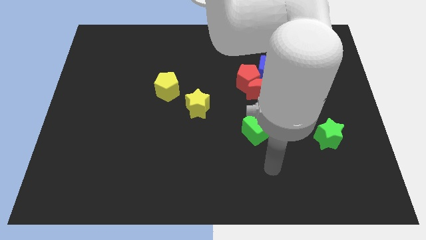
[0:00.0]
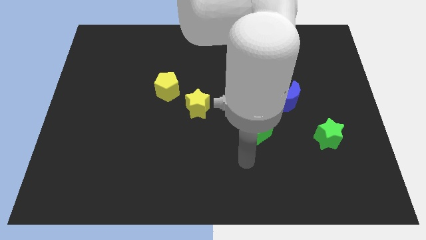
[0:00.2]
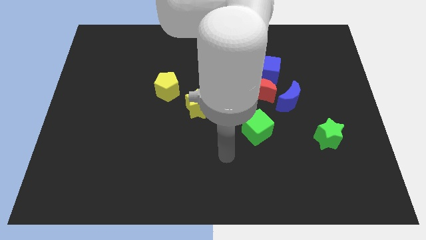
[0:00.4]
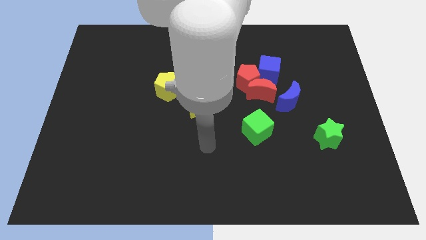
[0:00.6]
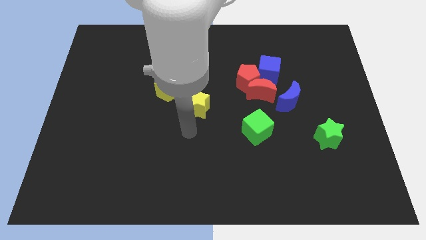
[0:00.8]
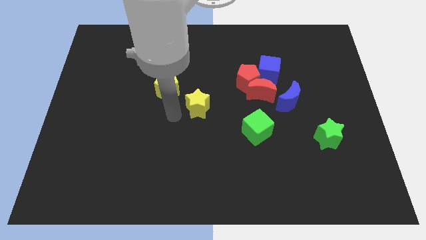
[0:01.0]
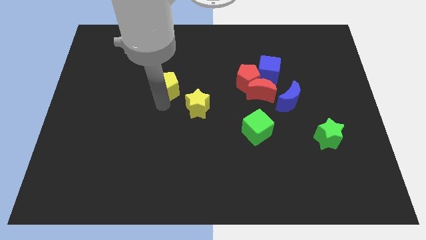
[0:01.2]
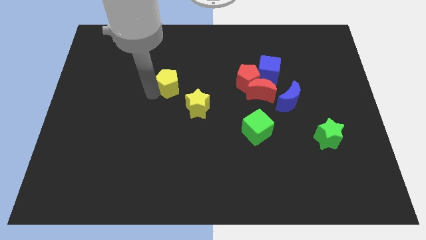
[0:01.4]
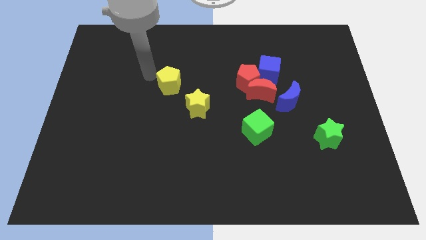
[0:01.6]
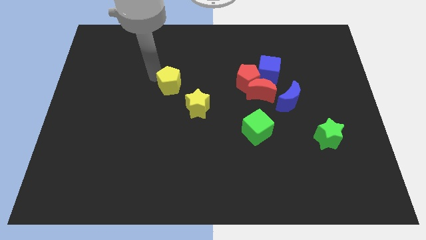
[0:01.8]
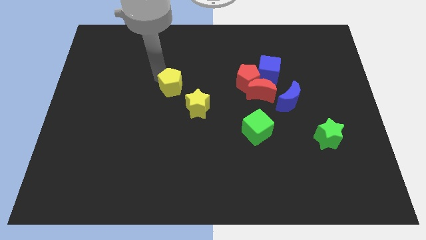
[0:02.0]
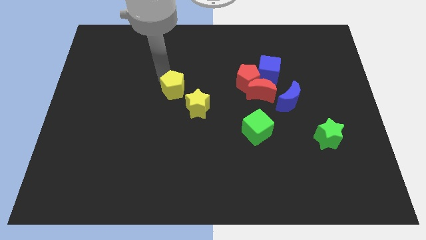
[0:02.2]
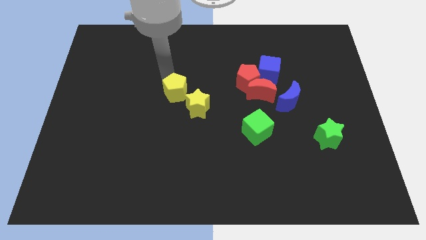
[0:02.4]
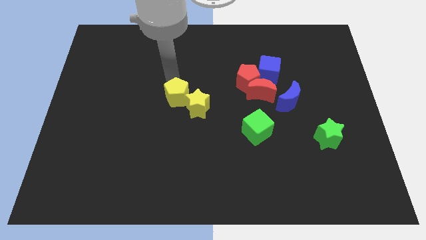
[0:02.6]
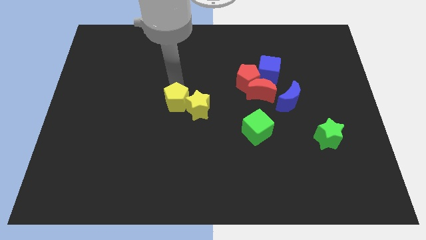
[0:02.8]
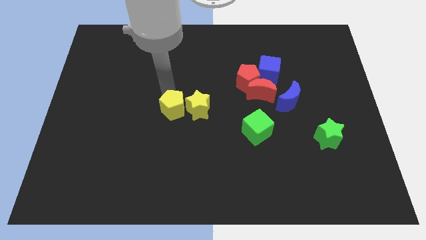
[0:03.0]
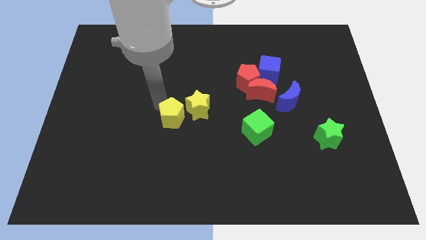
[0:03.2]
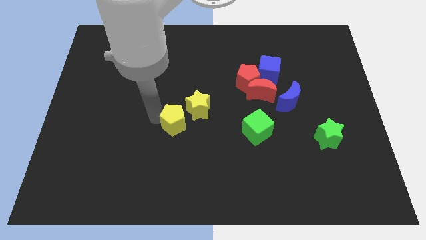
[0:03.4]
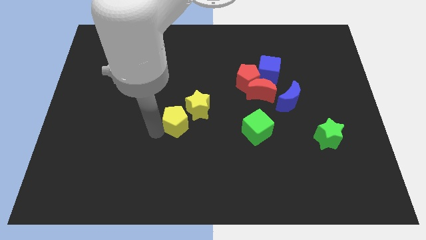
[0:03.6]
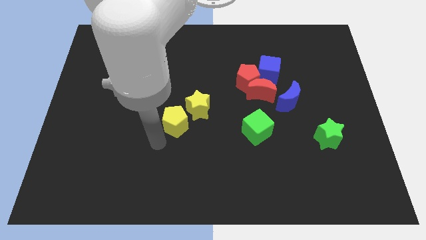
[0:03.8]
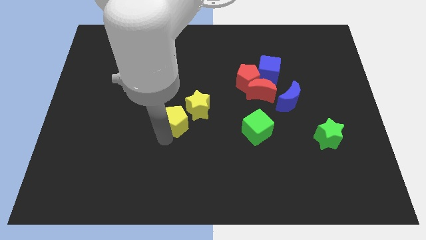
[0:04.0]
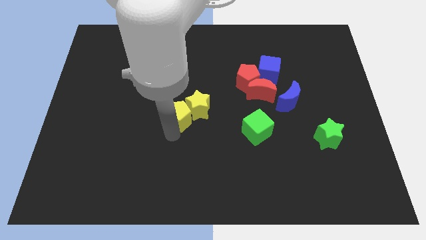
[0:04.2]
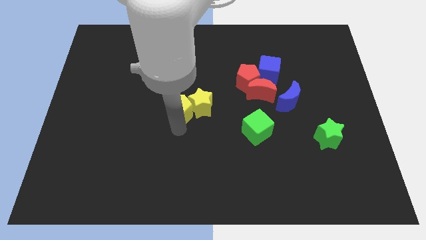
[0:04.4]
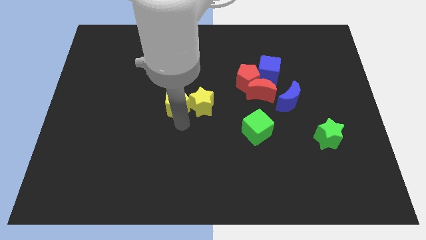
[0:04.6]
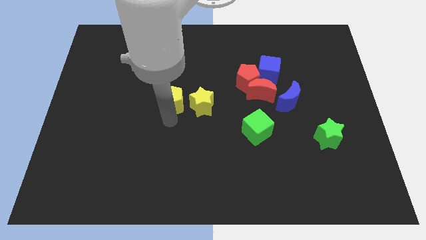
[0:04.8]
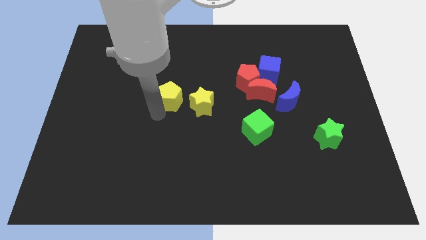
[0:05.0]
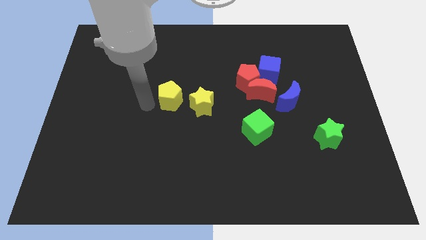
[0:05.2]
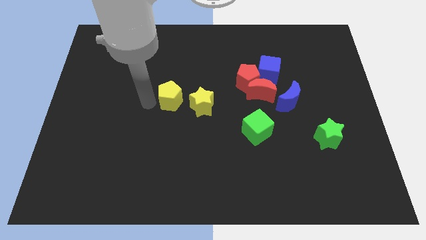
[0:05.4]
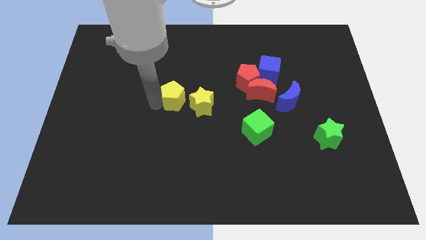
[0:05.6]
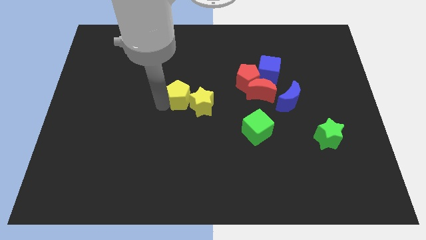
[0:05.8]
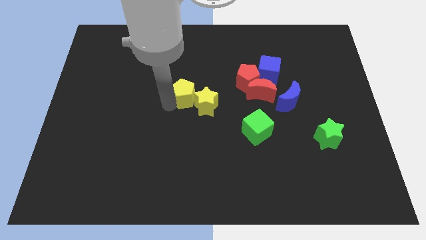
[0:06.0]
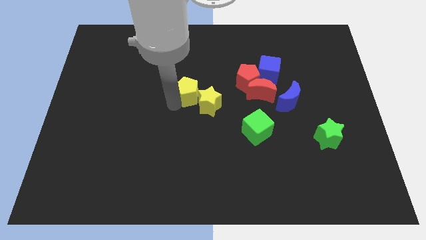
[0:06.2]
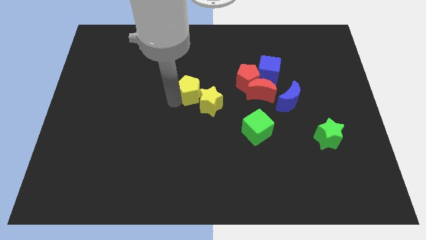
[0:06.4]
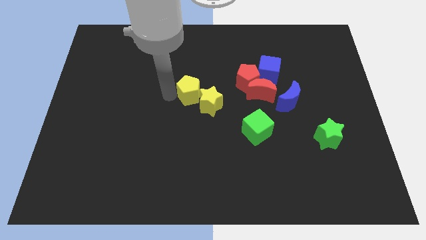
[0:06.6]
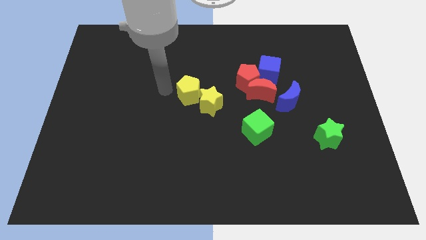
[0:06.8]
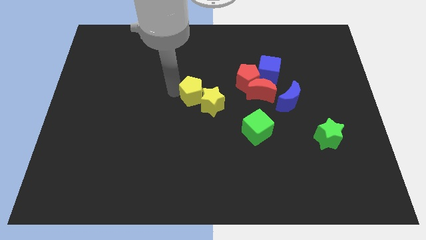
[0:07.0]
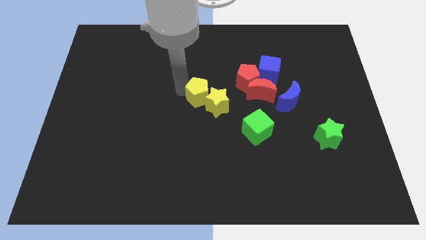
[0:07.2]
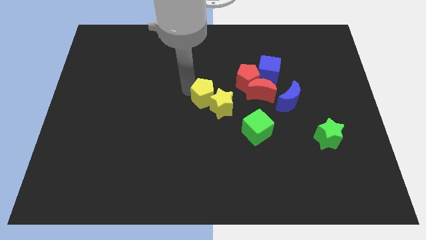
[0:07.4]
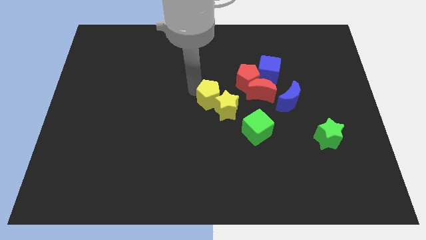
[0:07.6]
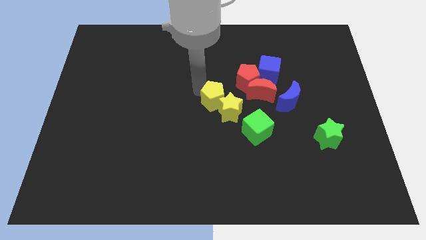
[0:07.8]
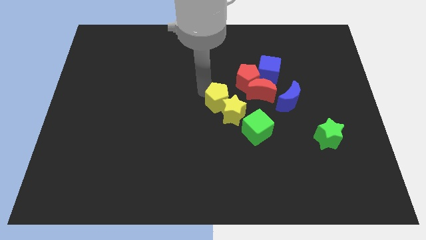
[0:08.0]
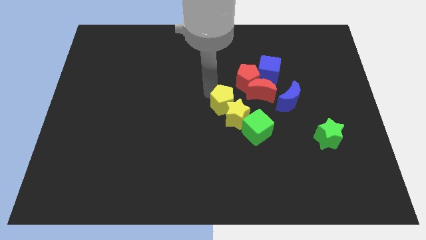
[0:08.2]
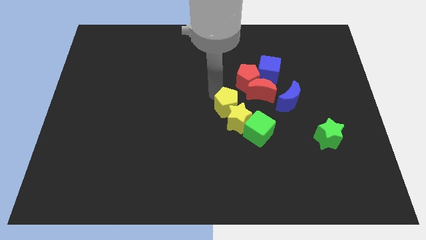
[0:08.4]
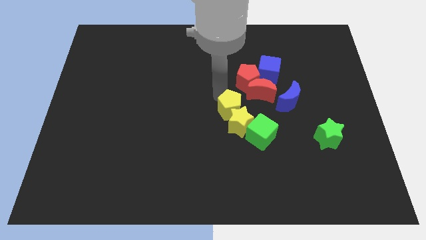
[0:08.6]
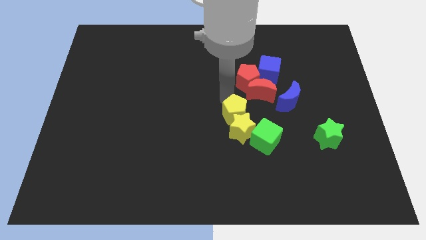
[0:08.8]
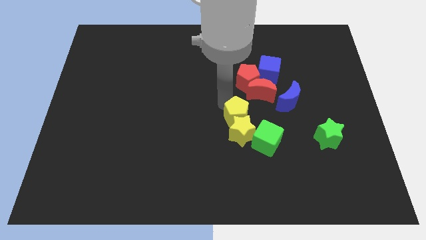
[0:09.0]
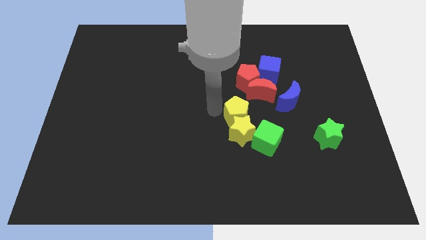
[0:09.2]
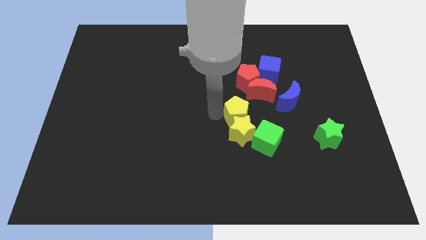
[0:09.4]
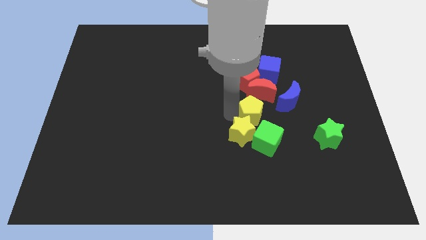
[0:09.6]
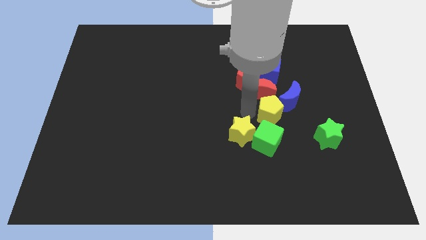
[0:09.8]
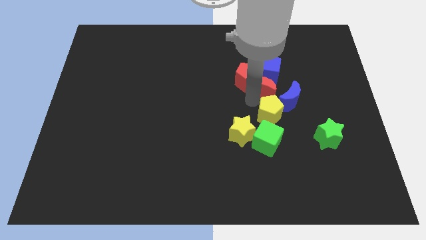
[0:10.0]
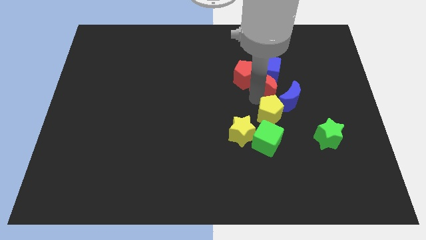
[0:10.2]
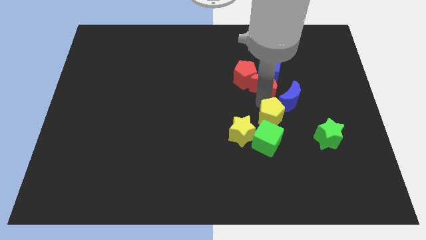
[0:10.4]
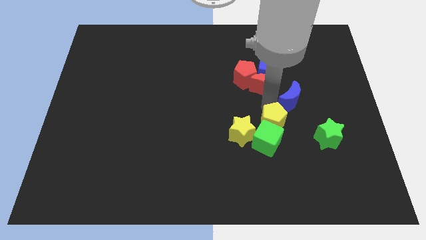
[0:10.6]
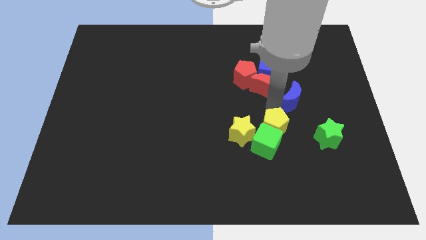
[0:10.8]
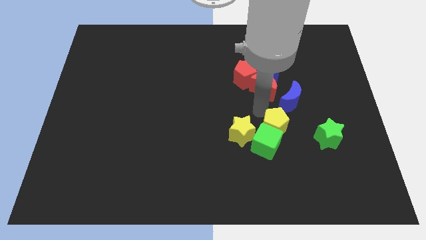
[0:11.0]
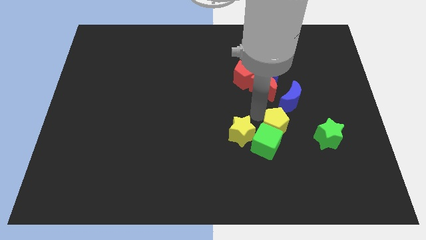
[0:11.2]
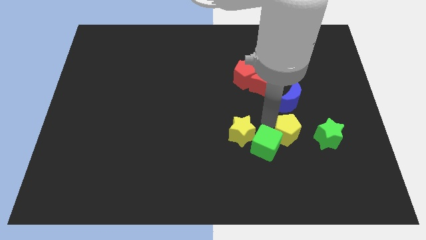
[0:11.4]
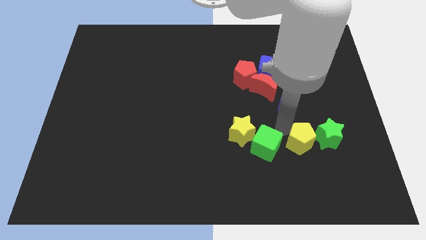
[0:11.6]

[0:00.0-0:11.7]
put the yellow pentagon to the bottom left side of the green star
